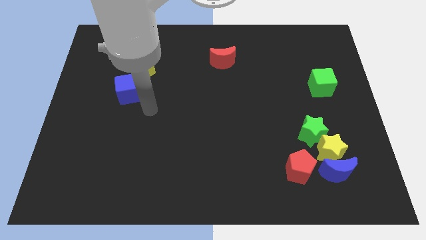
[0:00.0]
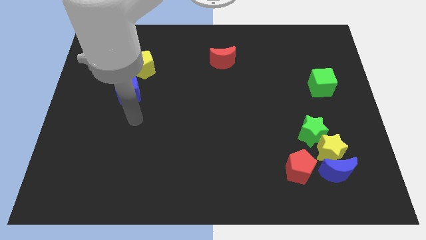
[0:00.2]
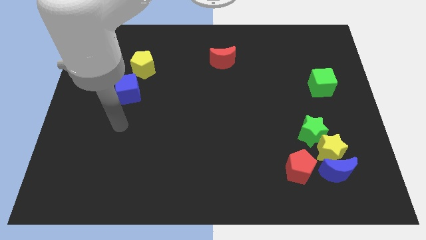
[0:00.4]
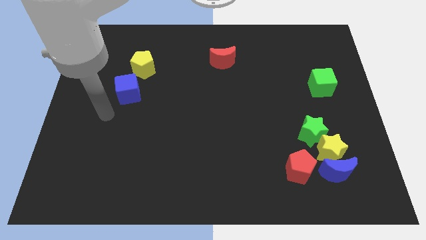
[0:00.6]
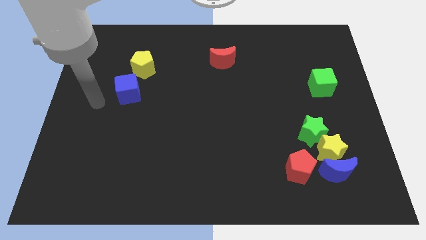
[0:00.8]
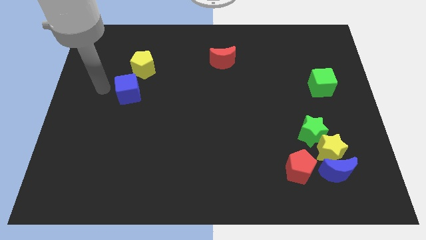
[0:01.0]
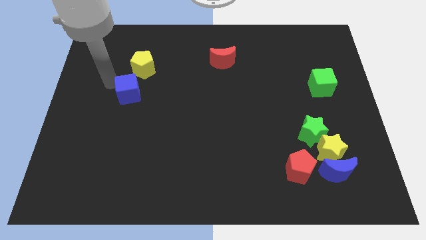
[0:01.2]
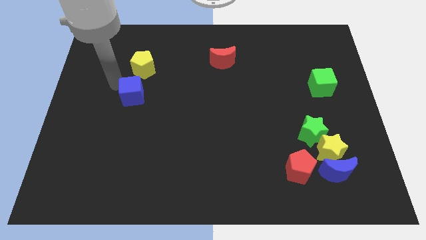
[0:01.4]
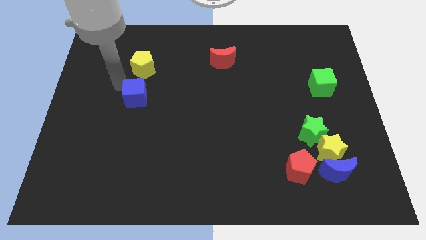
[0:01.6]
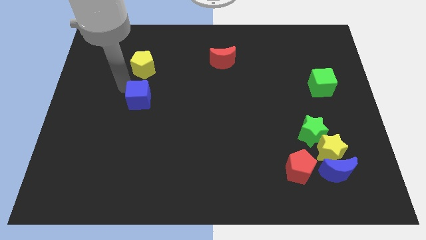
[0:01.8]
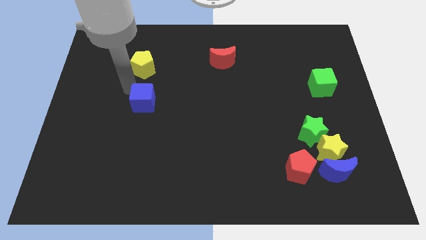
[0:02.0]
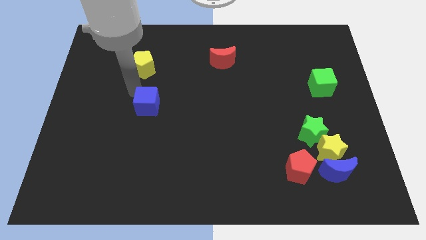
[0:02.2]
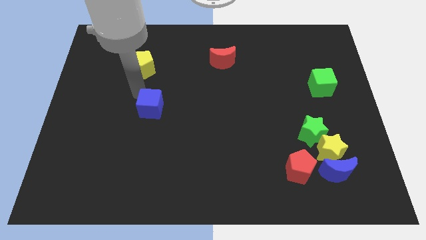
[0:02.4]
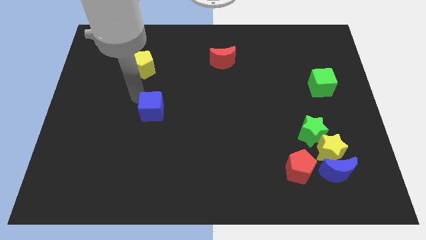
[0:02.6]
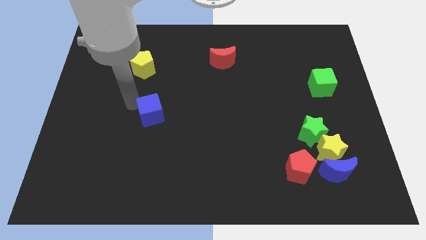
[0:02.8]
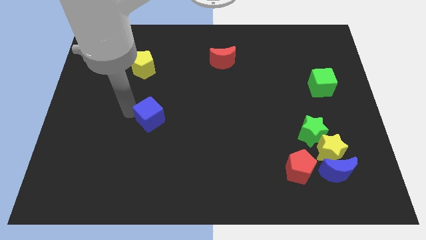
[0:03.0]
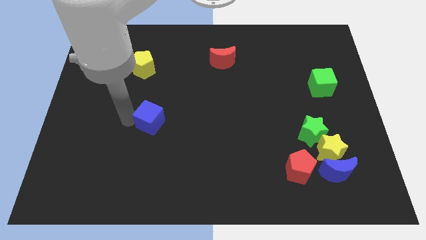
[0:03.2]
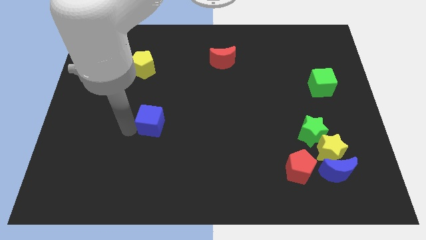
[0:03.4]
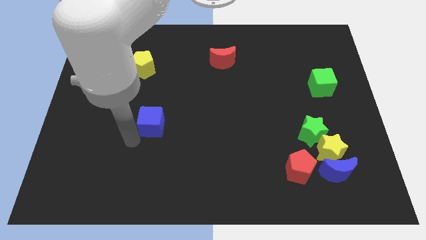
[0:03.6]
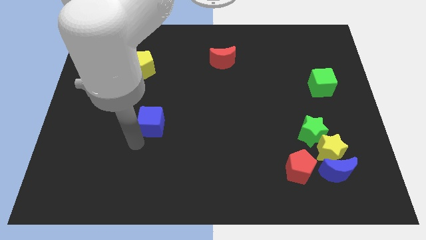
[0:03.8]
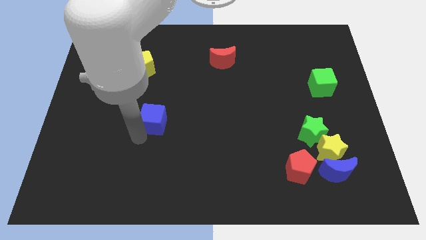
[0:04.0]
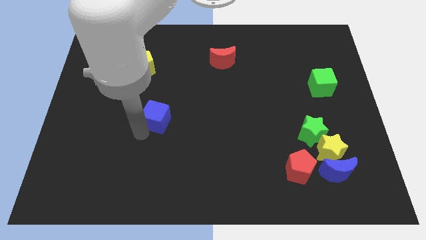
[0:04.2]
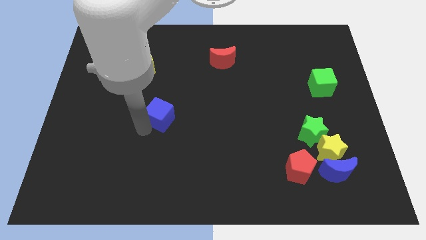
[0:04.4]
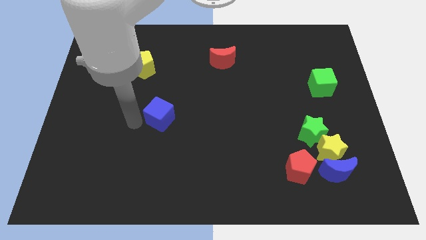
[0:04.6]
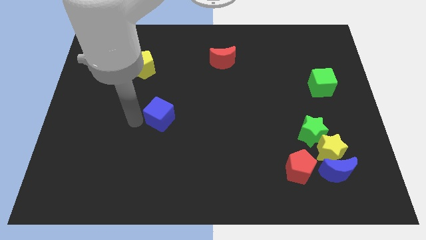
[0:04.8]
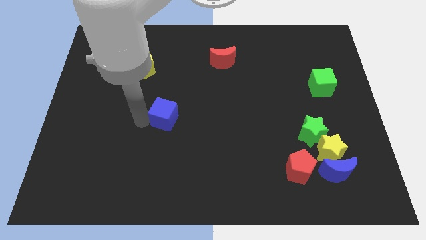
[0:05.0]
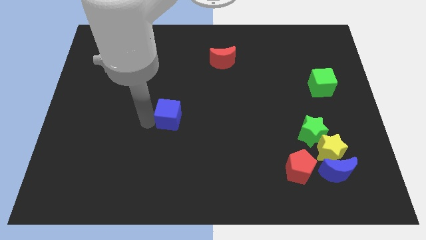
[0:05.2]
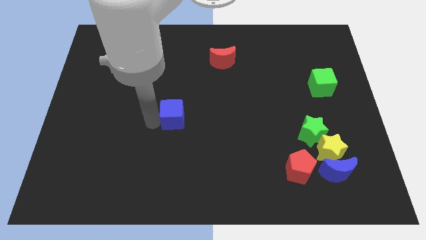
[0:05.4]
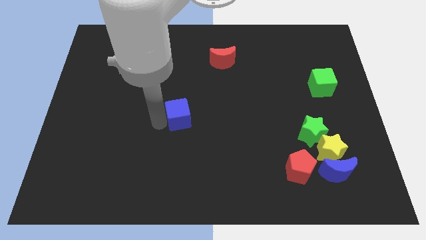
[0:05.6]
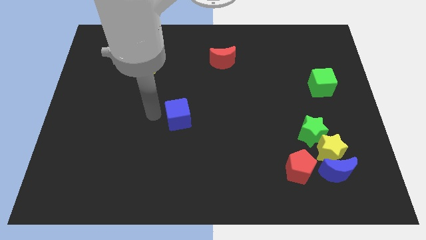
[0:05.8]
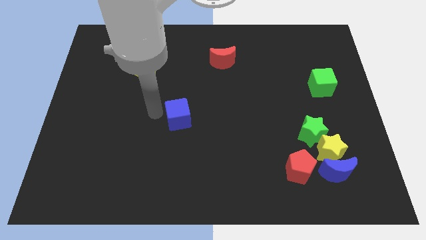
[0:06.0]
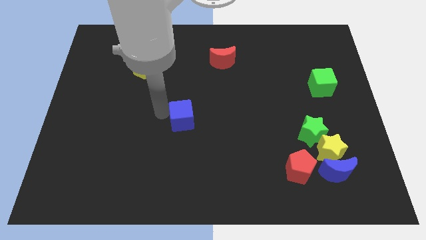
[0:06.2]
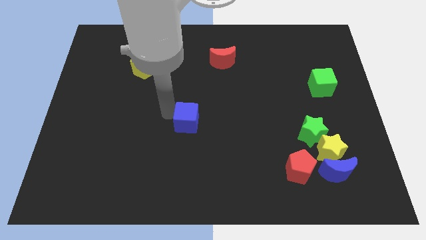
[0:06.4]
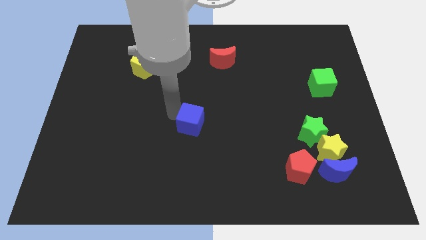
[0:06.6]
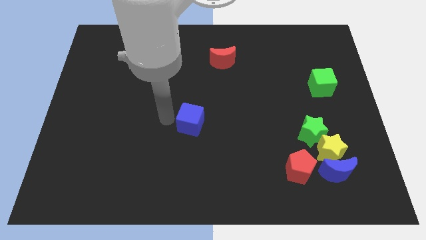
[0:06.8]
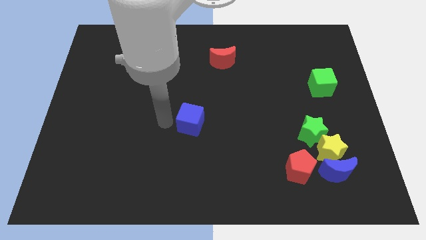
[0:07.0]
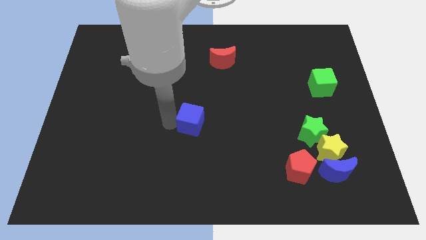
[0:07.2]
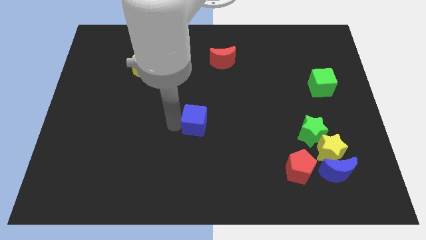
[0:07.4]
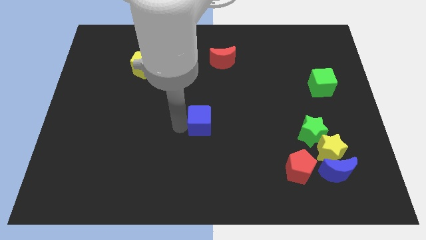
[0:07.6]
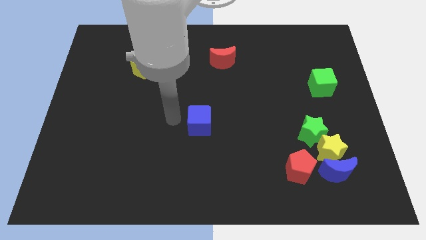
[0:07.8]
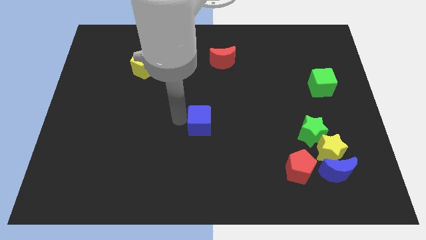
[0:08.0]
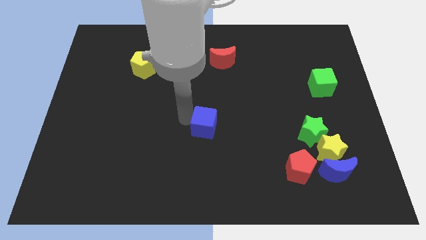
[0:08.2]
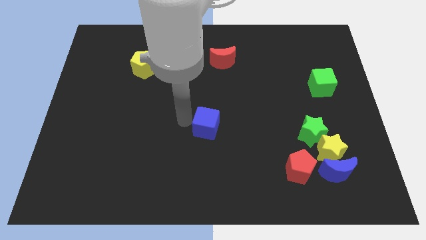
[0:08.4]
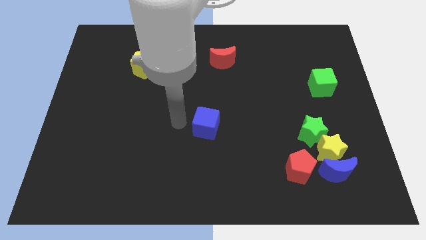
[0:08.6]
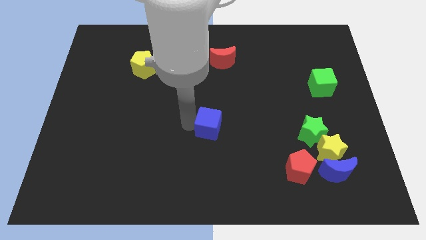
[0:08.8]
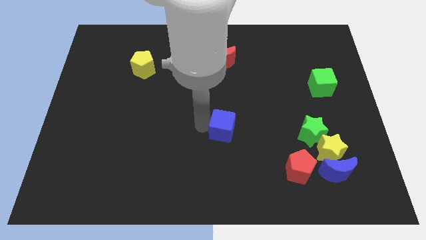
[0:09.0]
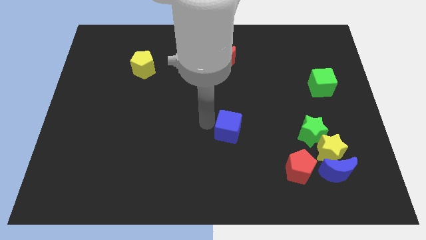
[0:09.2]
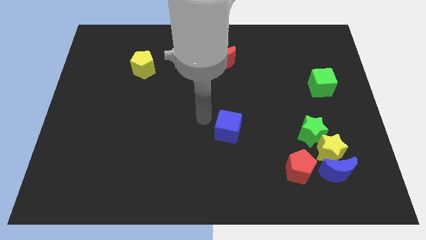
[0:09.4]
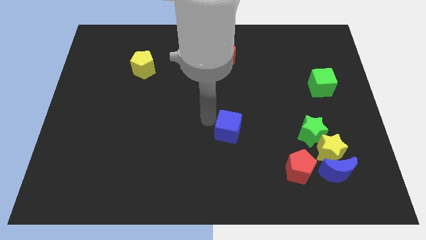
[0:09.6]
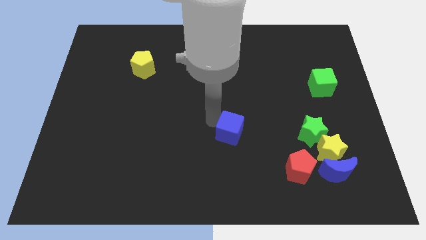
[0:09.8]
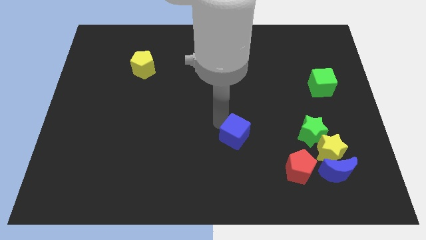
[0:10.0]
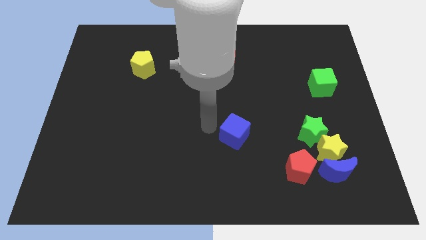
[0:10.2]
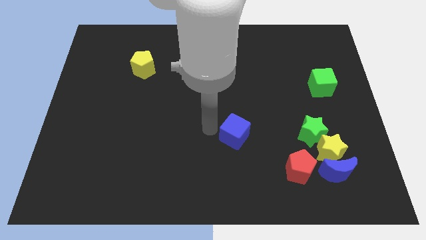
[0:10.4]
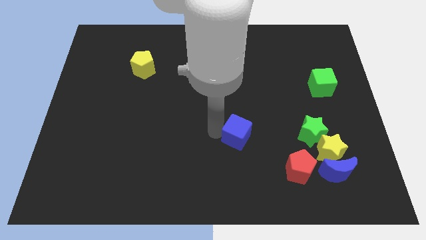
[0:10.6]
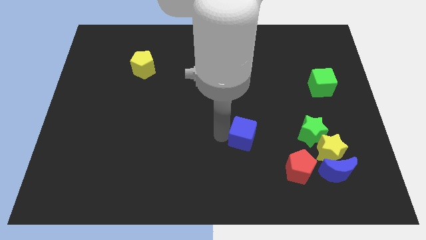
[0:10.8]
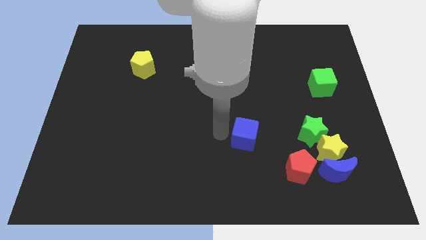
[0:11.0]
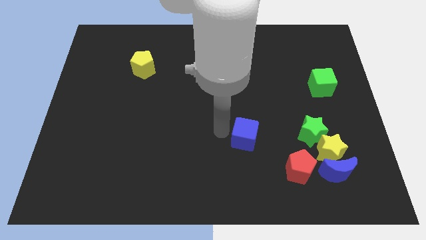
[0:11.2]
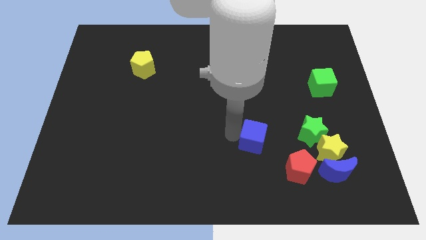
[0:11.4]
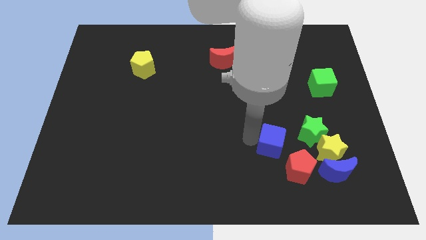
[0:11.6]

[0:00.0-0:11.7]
slide the blue cube to the bottom left of the green star

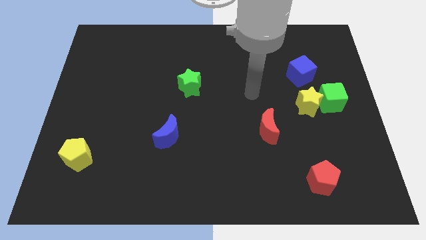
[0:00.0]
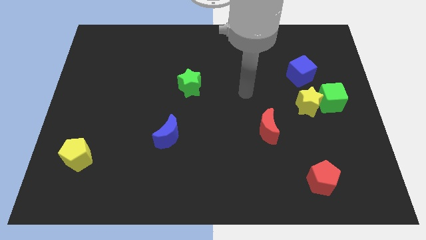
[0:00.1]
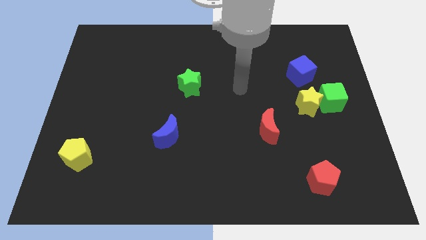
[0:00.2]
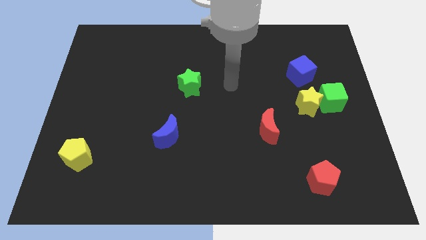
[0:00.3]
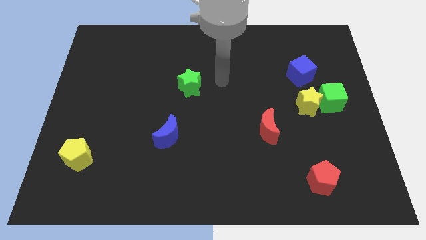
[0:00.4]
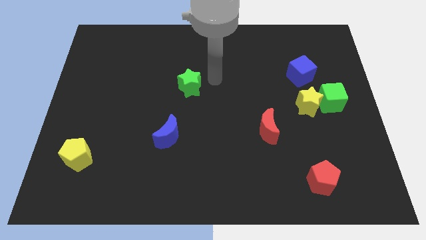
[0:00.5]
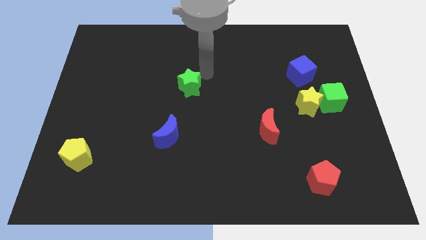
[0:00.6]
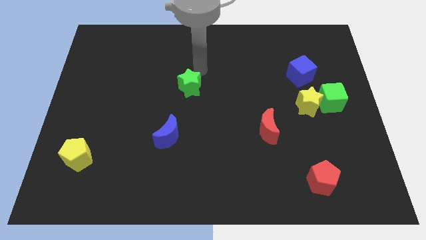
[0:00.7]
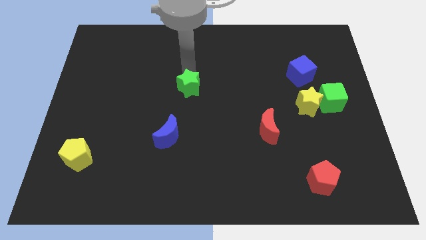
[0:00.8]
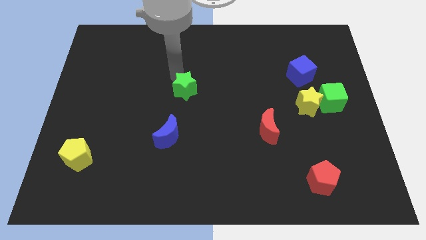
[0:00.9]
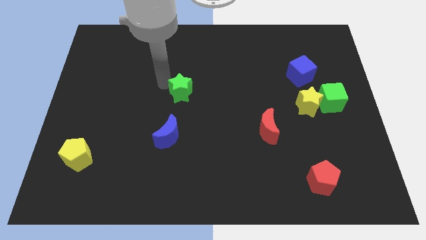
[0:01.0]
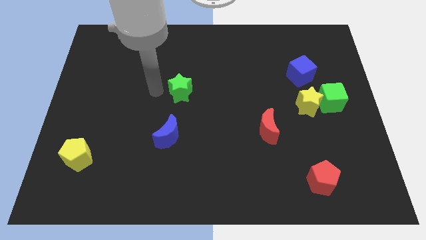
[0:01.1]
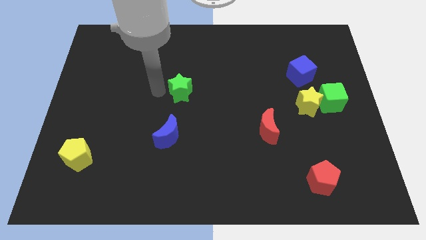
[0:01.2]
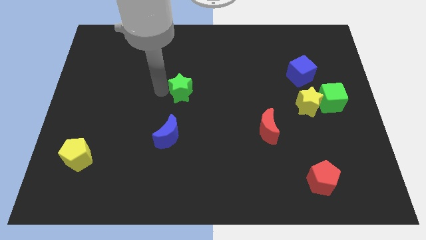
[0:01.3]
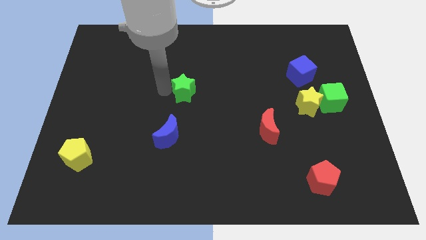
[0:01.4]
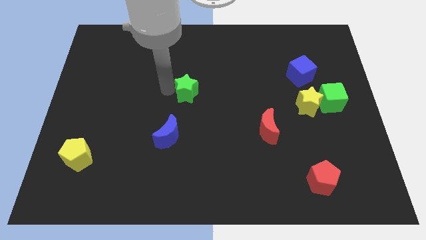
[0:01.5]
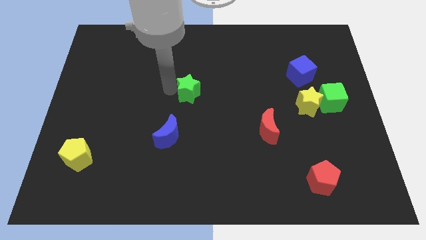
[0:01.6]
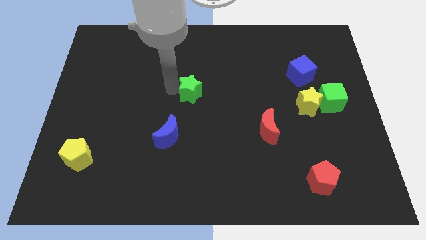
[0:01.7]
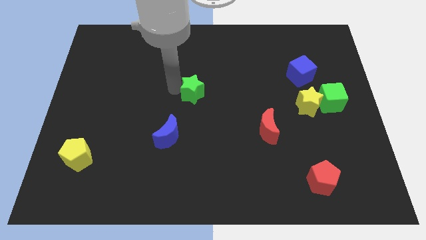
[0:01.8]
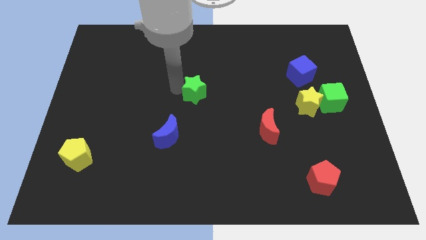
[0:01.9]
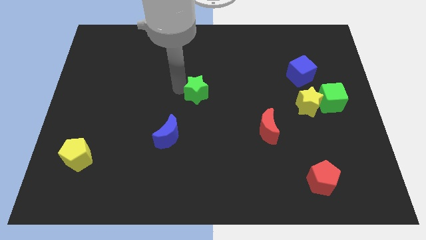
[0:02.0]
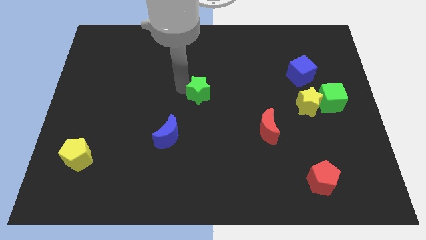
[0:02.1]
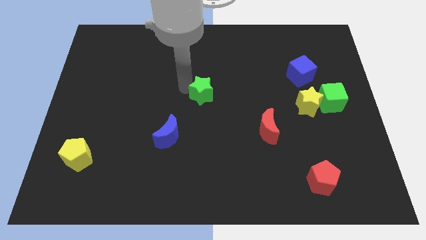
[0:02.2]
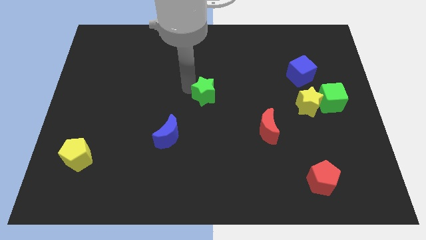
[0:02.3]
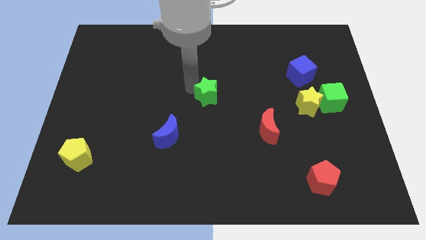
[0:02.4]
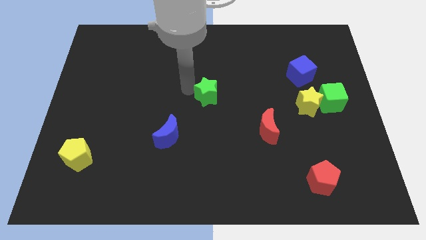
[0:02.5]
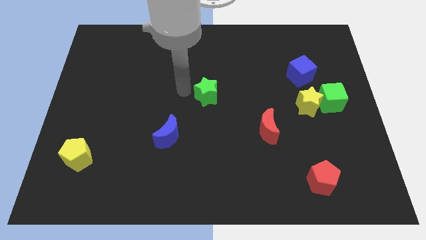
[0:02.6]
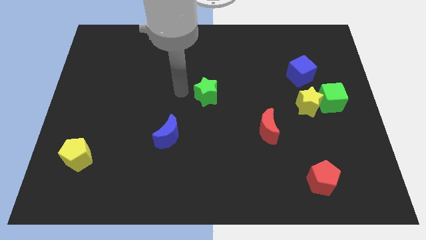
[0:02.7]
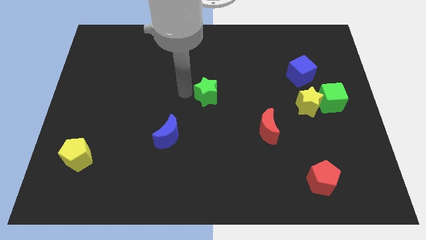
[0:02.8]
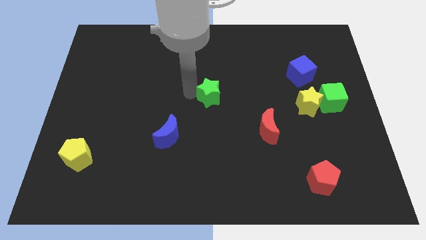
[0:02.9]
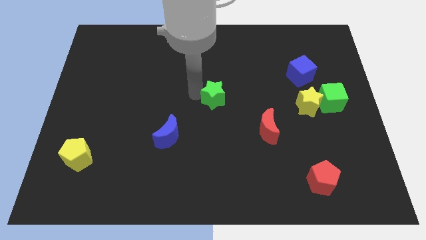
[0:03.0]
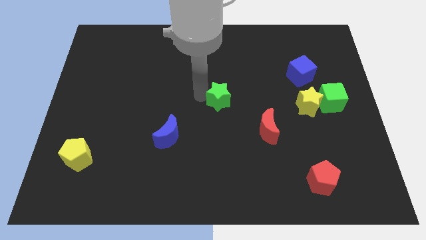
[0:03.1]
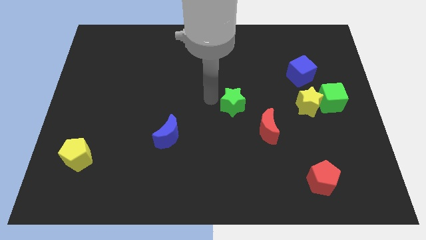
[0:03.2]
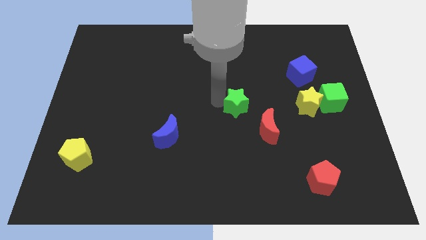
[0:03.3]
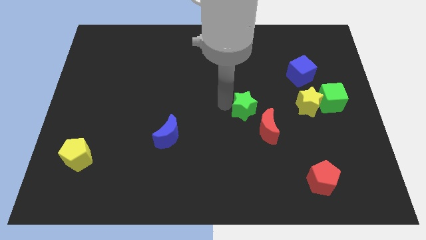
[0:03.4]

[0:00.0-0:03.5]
slide the green star left of the yellow star
